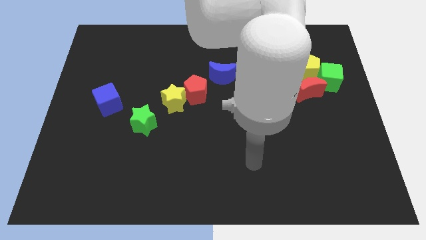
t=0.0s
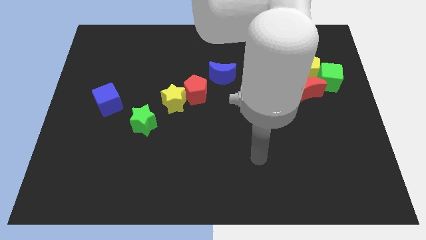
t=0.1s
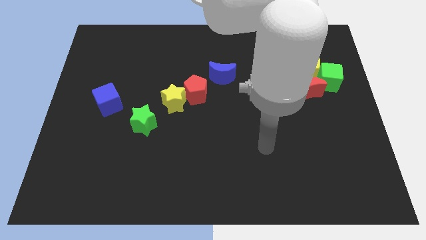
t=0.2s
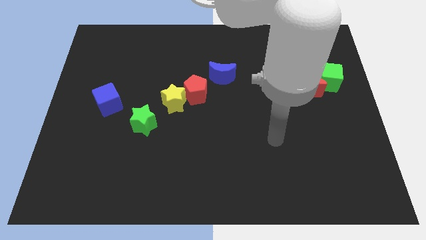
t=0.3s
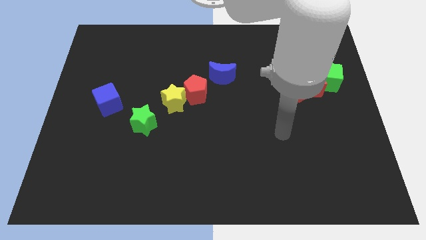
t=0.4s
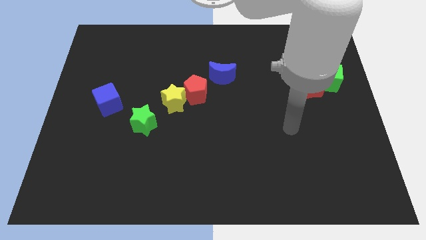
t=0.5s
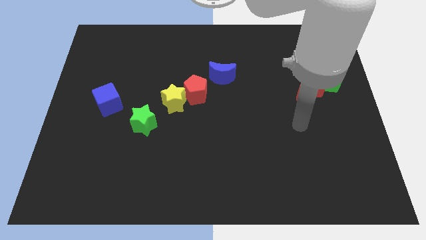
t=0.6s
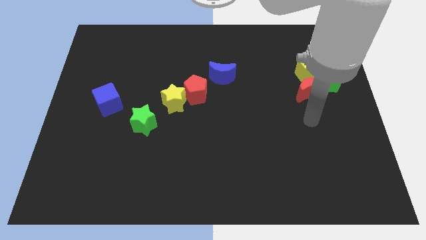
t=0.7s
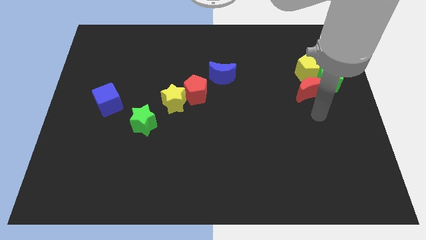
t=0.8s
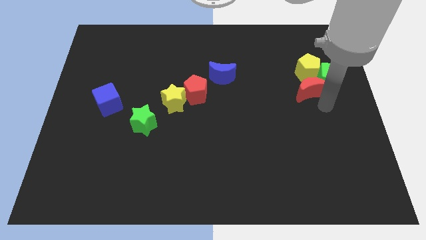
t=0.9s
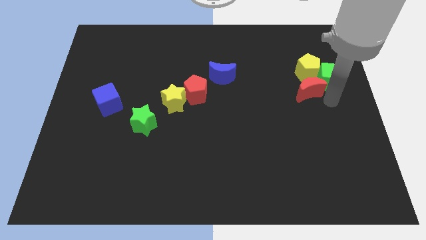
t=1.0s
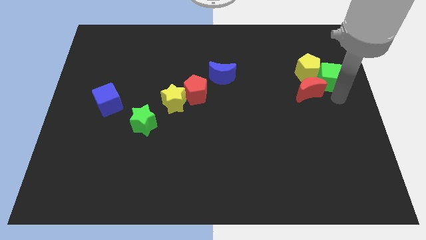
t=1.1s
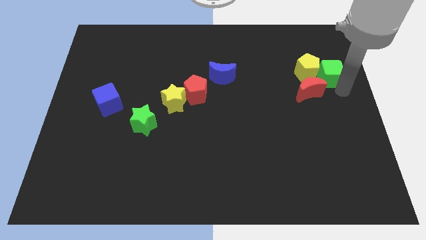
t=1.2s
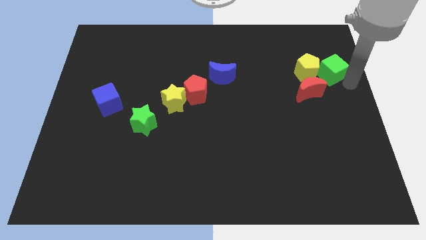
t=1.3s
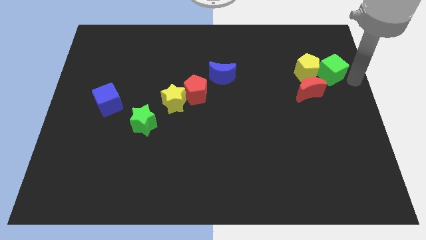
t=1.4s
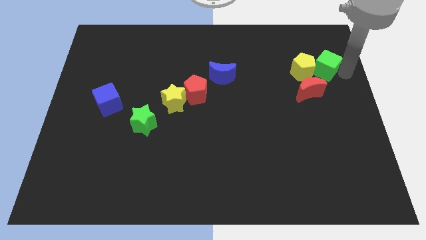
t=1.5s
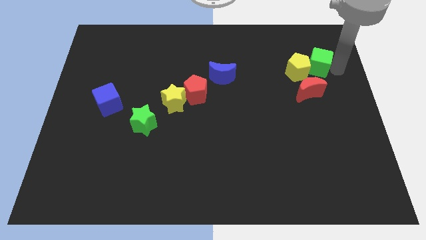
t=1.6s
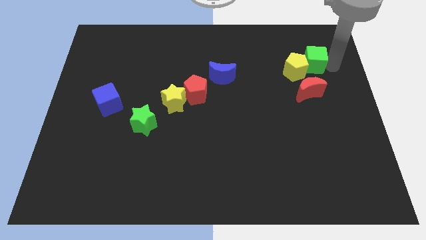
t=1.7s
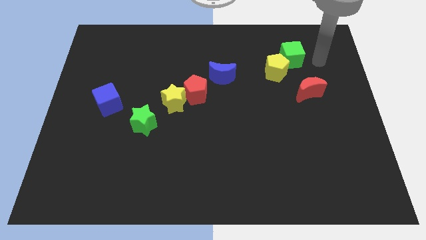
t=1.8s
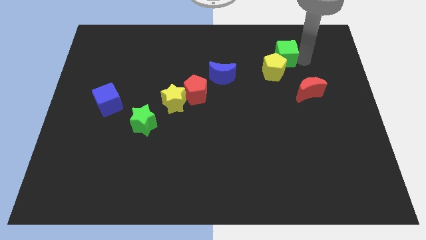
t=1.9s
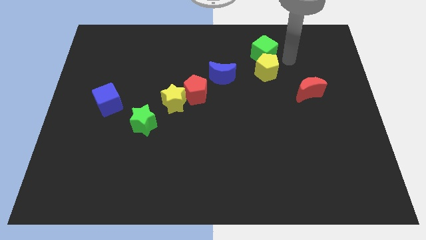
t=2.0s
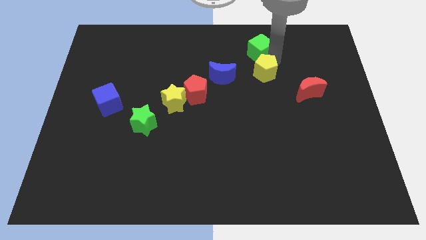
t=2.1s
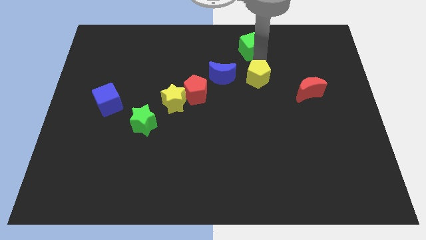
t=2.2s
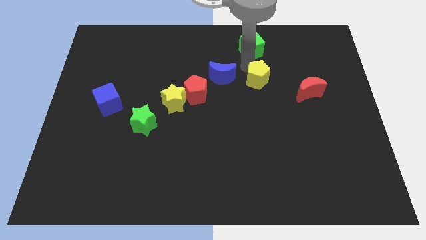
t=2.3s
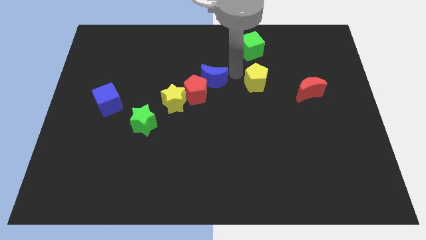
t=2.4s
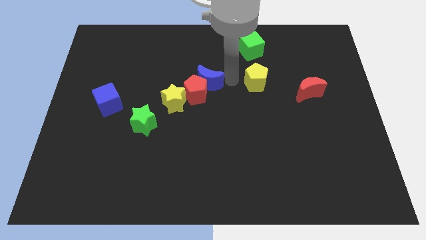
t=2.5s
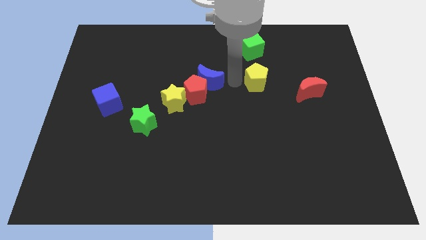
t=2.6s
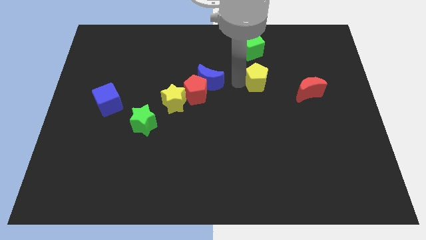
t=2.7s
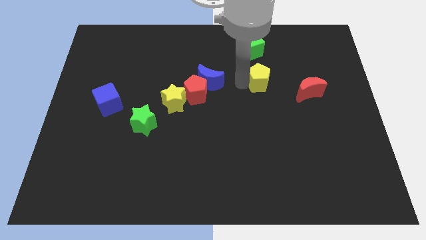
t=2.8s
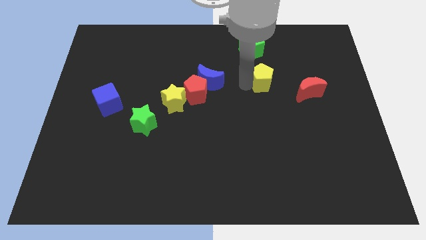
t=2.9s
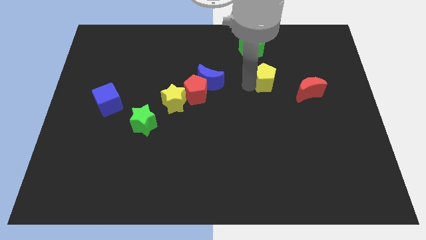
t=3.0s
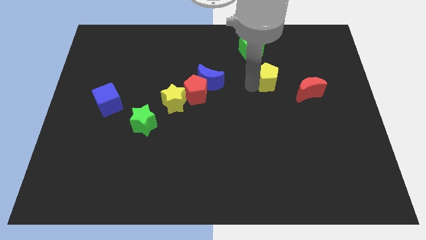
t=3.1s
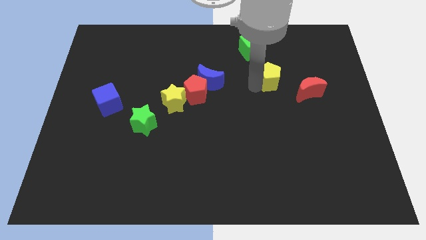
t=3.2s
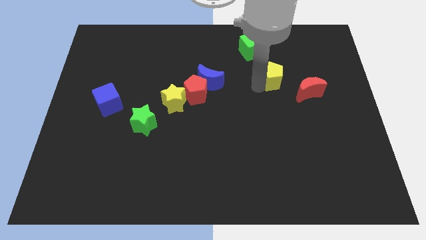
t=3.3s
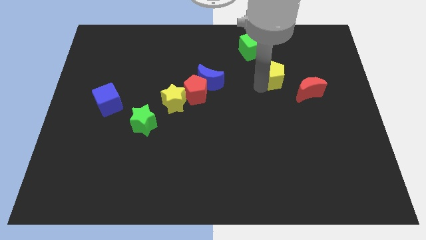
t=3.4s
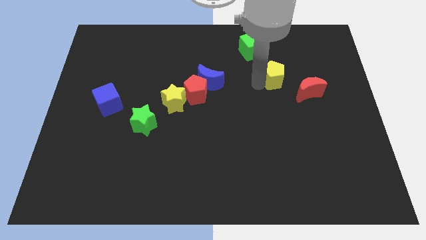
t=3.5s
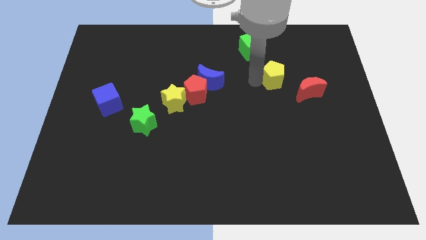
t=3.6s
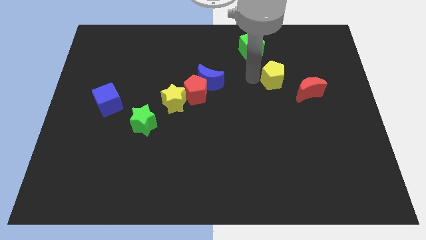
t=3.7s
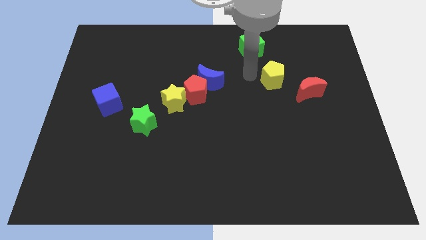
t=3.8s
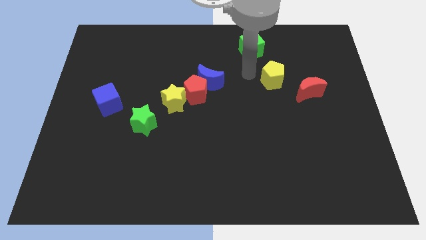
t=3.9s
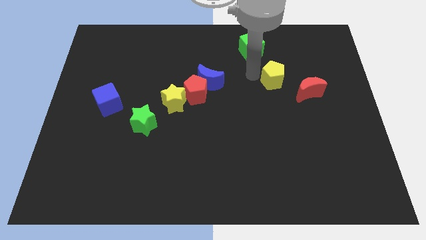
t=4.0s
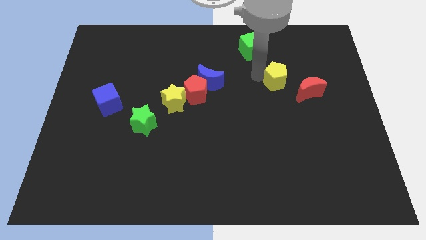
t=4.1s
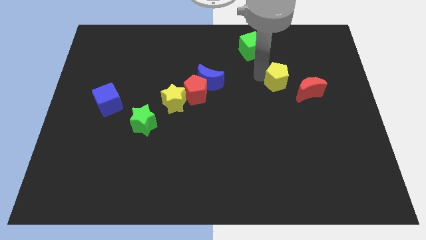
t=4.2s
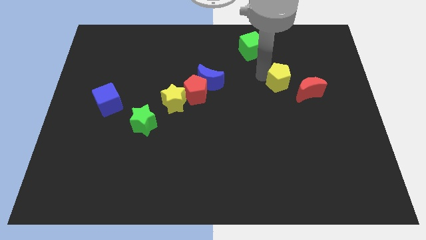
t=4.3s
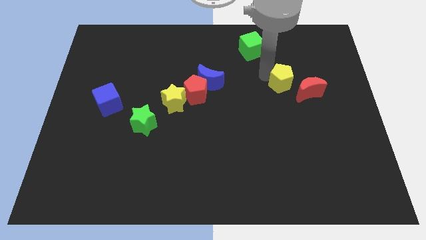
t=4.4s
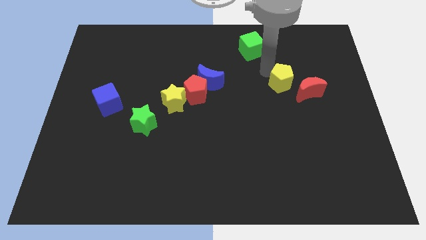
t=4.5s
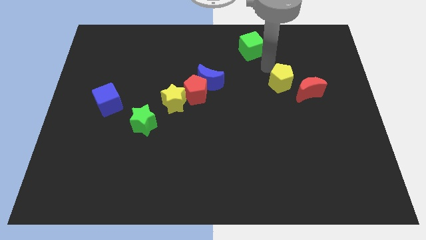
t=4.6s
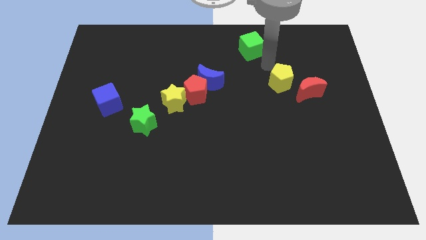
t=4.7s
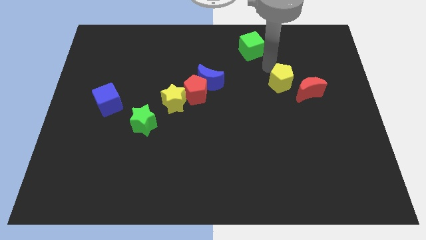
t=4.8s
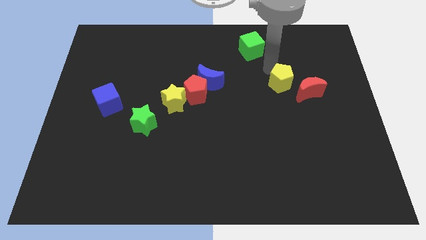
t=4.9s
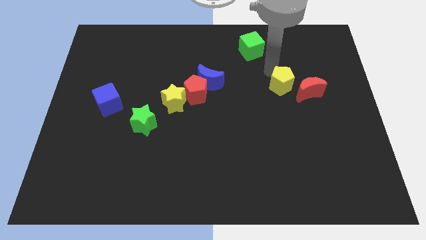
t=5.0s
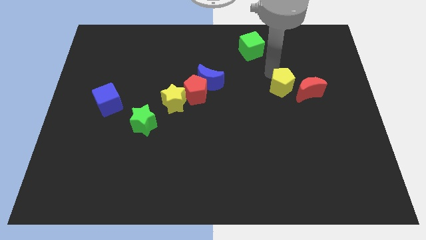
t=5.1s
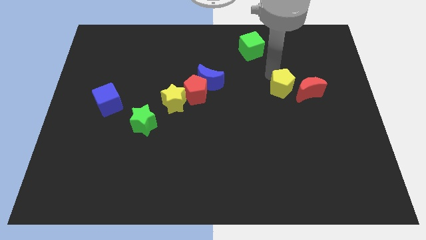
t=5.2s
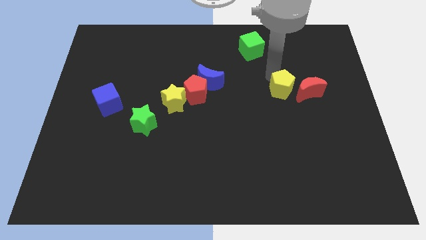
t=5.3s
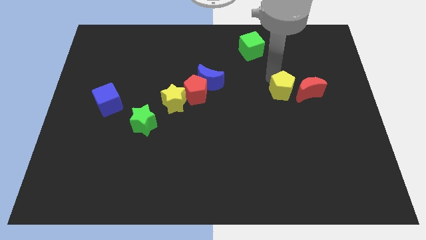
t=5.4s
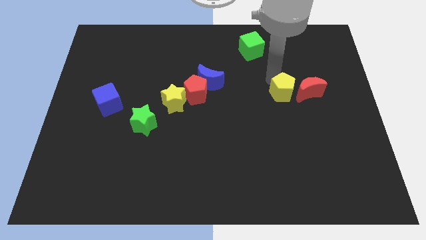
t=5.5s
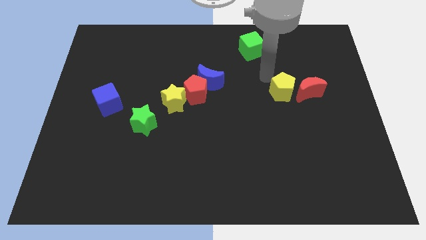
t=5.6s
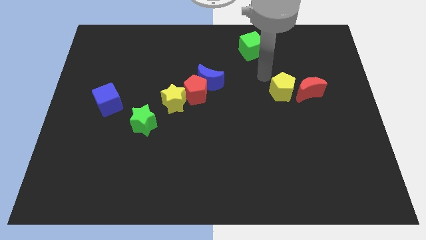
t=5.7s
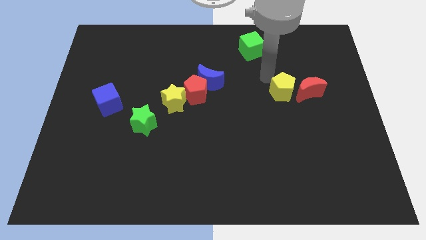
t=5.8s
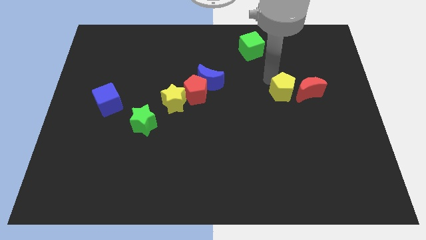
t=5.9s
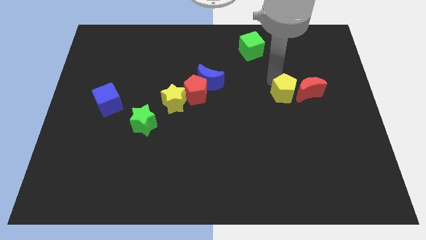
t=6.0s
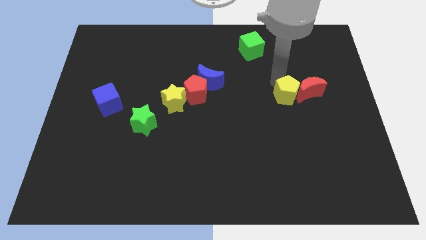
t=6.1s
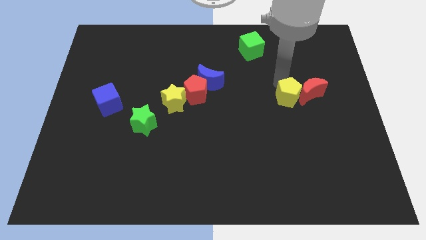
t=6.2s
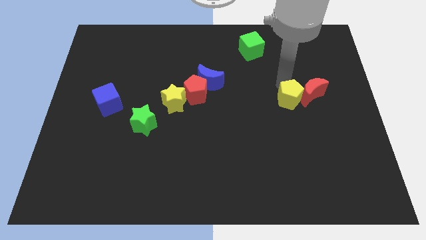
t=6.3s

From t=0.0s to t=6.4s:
push the yellow pentagon down a little bit

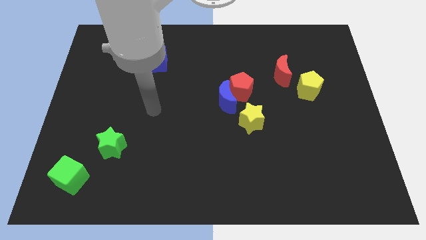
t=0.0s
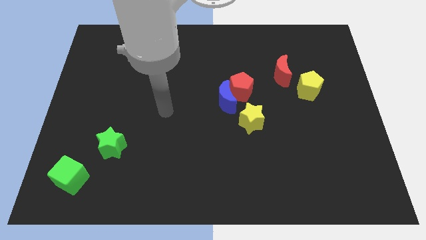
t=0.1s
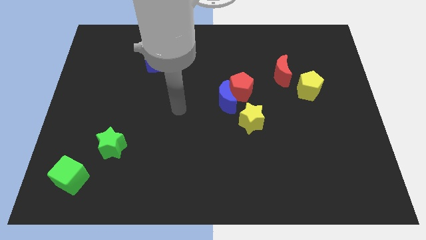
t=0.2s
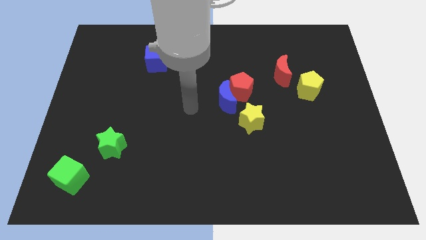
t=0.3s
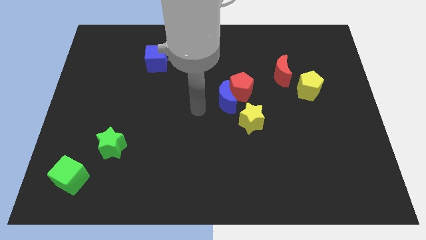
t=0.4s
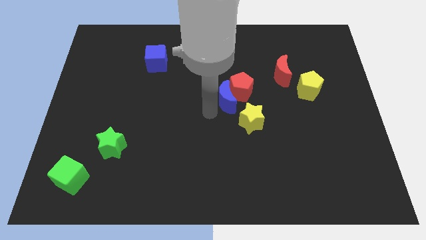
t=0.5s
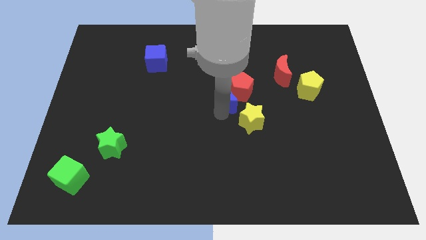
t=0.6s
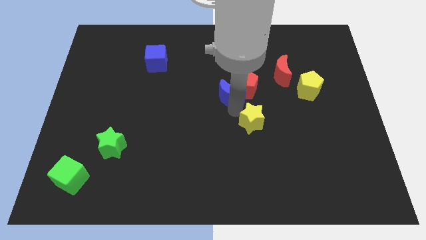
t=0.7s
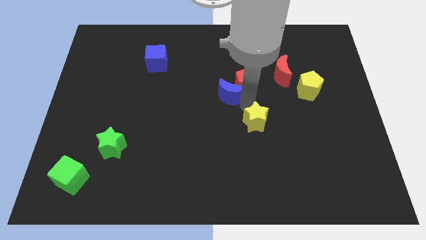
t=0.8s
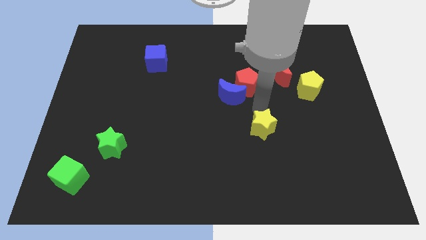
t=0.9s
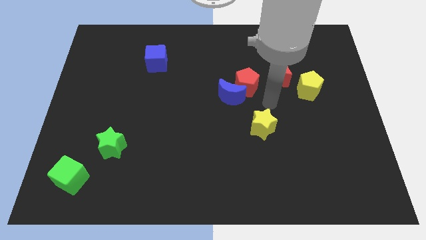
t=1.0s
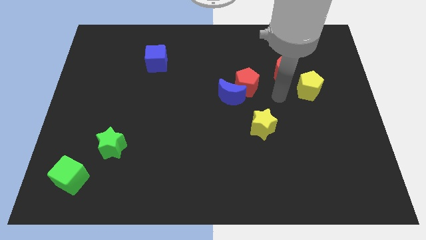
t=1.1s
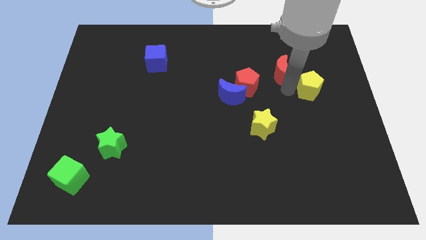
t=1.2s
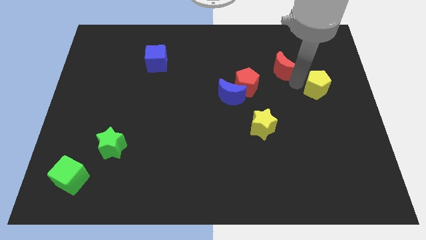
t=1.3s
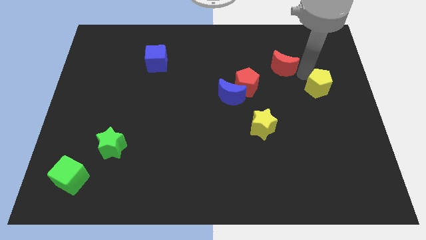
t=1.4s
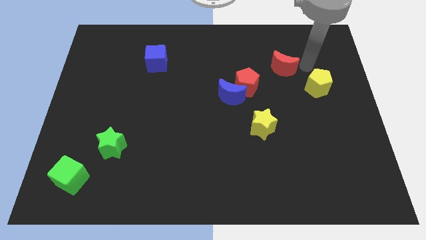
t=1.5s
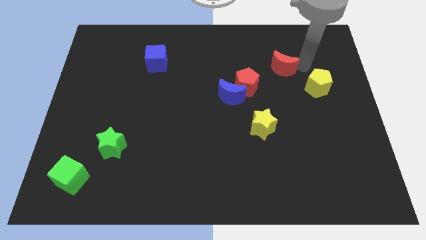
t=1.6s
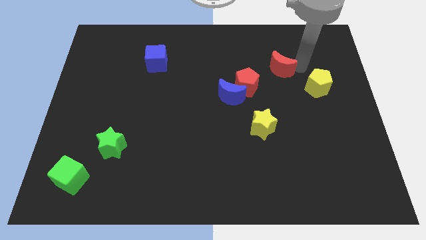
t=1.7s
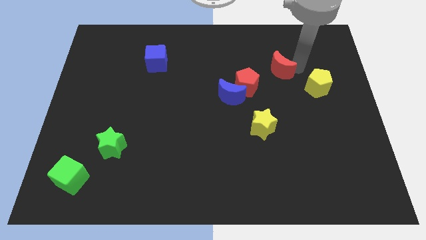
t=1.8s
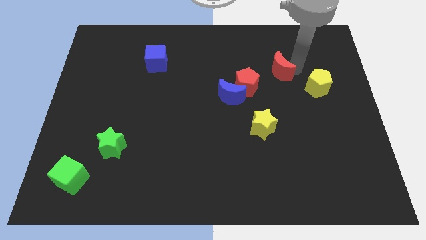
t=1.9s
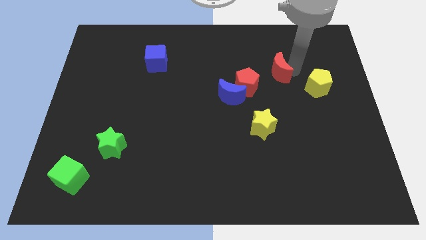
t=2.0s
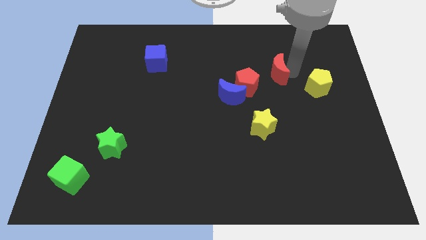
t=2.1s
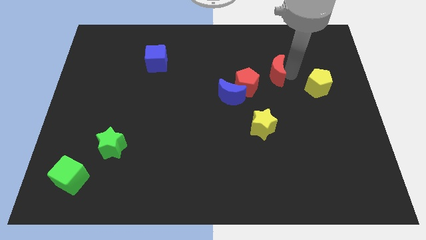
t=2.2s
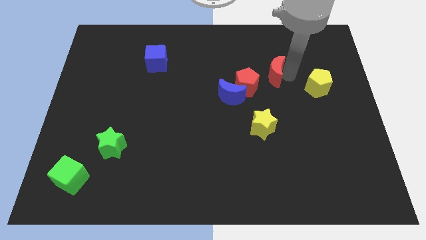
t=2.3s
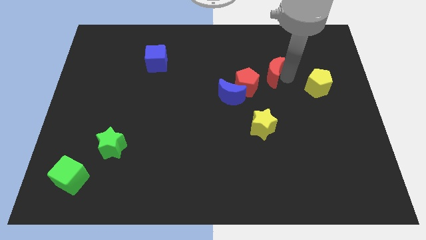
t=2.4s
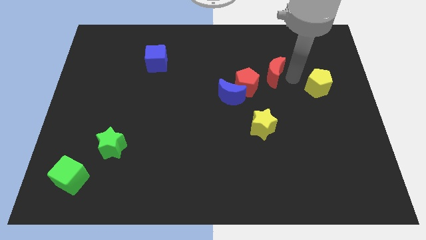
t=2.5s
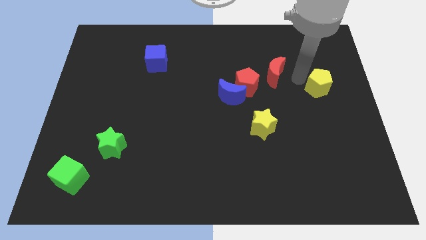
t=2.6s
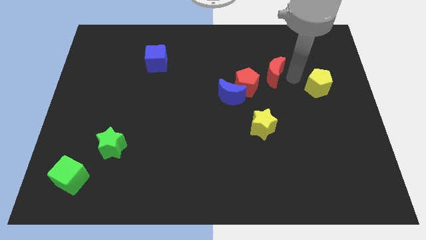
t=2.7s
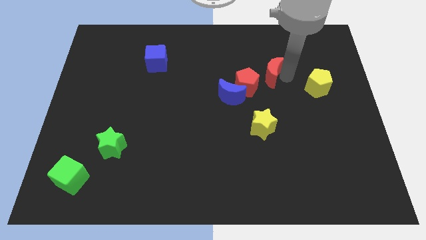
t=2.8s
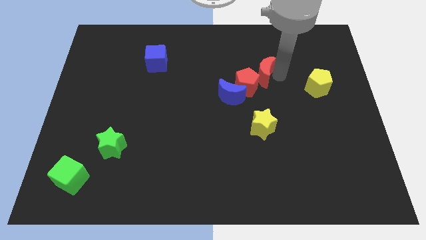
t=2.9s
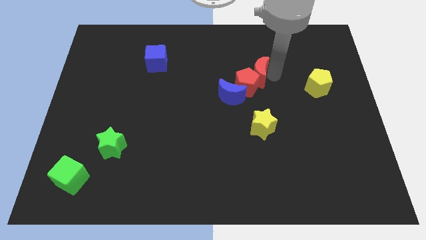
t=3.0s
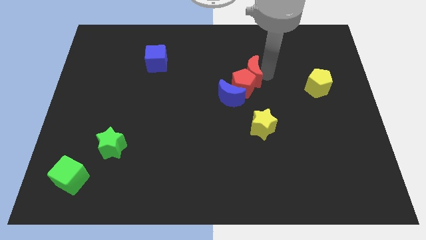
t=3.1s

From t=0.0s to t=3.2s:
slide the red moon left a little bit
